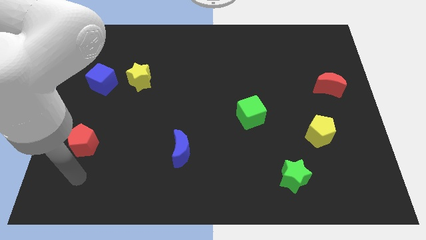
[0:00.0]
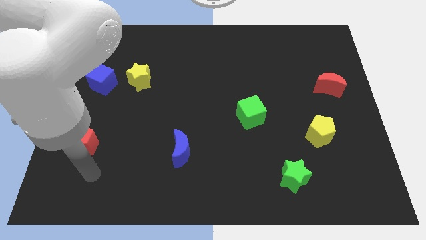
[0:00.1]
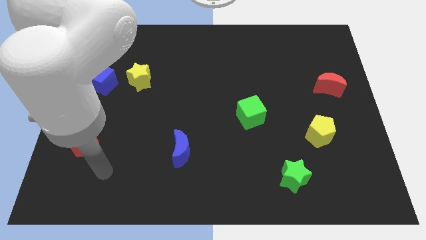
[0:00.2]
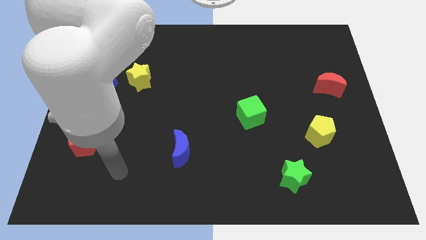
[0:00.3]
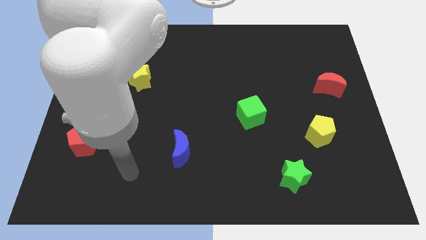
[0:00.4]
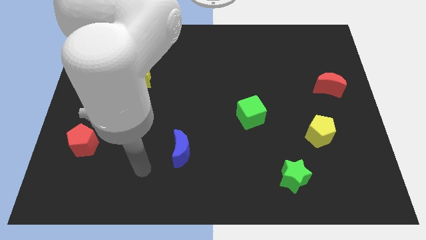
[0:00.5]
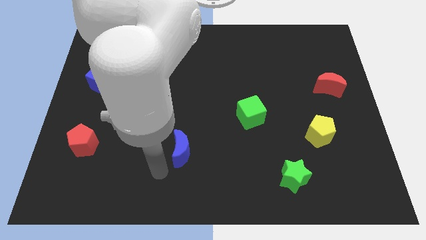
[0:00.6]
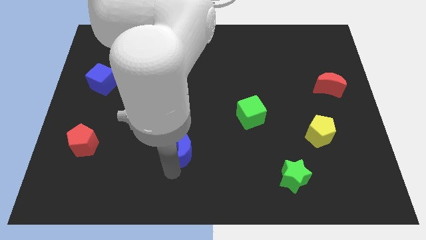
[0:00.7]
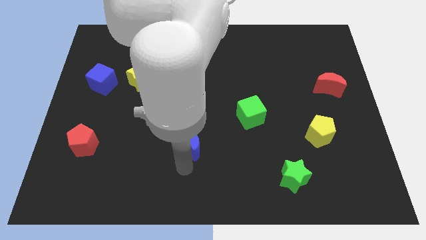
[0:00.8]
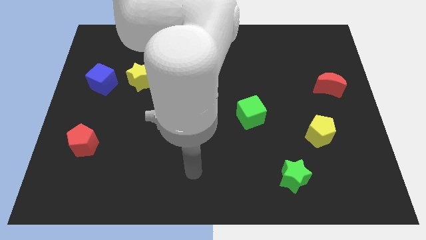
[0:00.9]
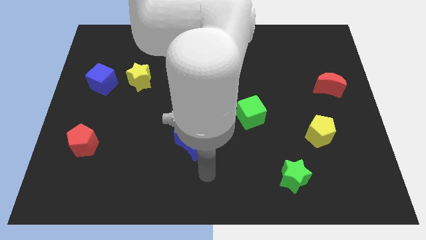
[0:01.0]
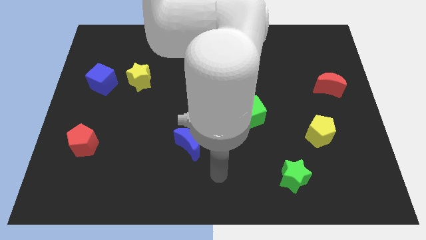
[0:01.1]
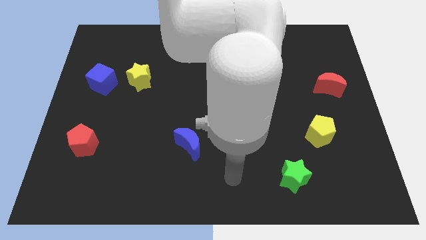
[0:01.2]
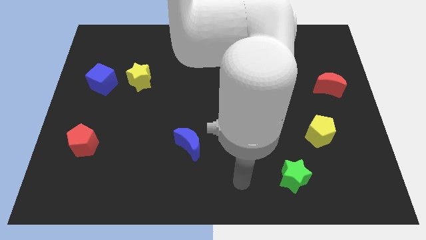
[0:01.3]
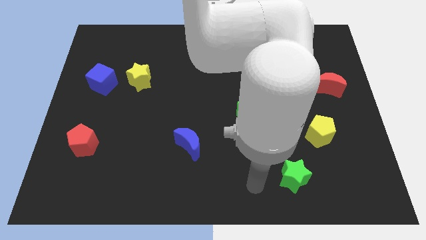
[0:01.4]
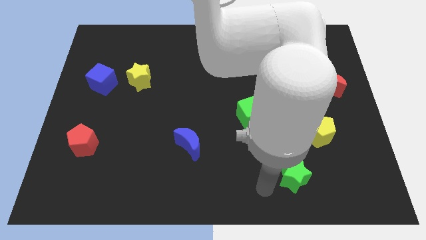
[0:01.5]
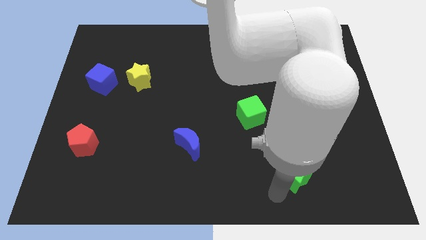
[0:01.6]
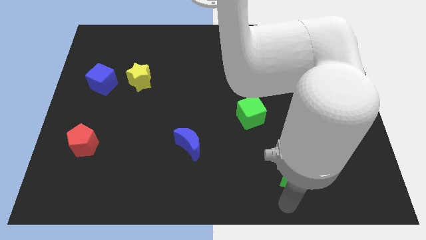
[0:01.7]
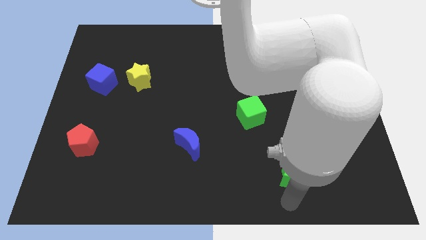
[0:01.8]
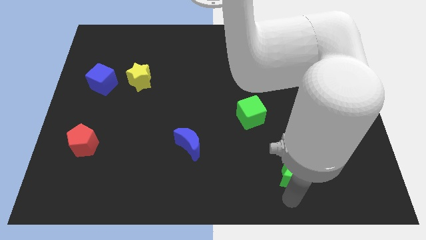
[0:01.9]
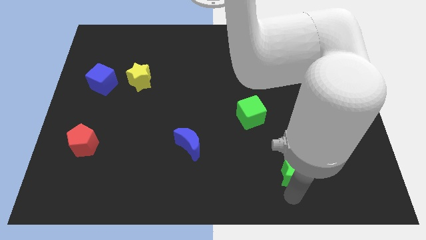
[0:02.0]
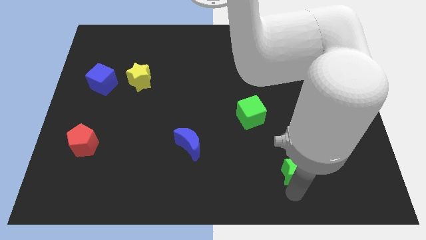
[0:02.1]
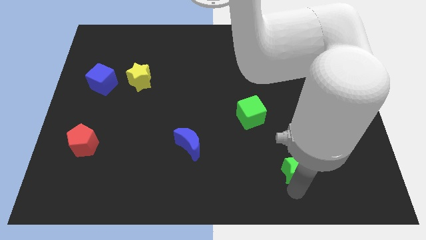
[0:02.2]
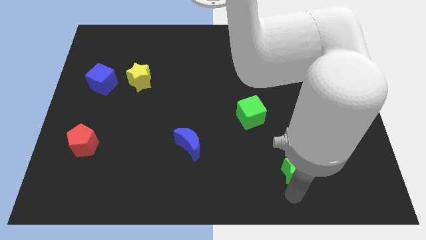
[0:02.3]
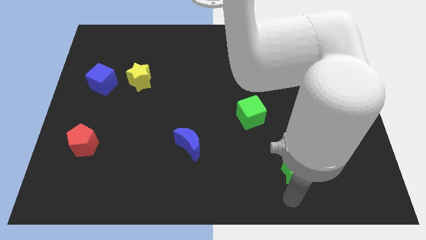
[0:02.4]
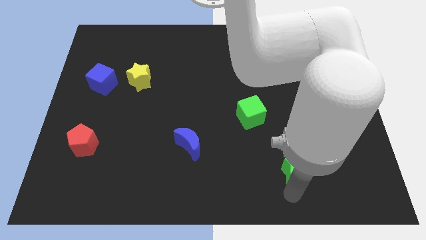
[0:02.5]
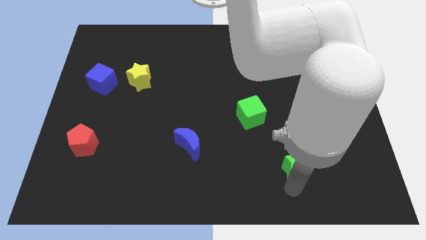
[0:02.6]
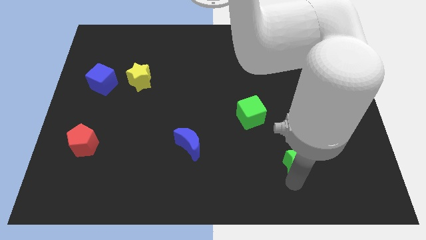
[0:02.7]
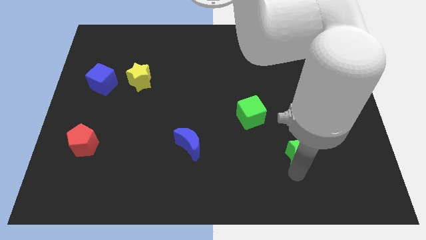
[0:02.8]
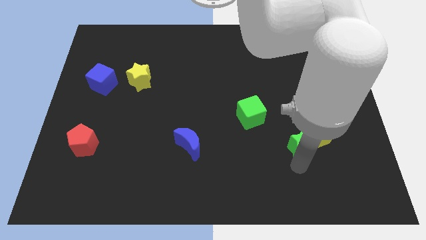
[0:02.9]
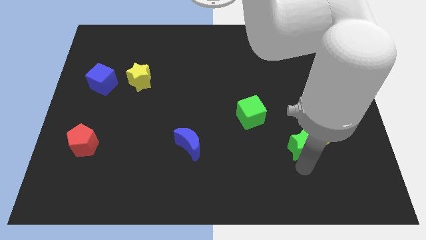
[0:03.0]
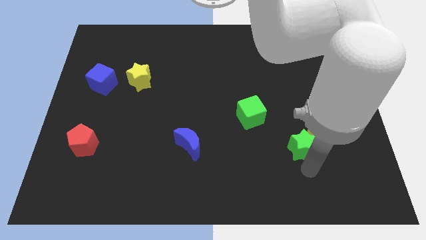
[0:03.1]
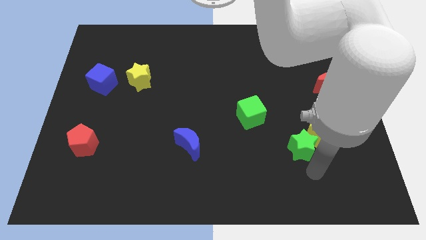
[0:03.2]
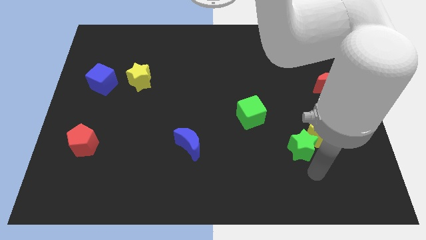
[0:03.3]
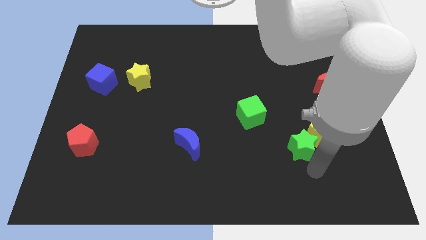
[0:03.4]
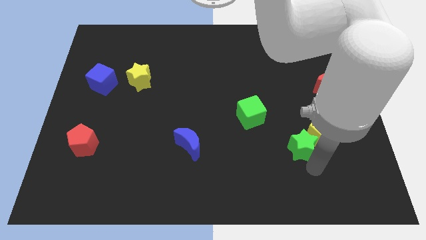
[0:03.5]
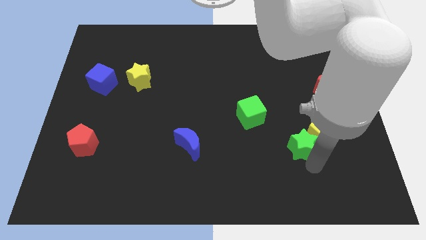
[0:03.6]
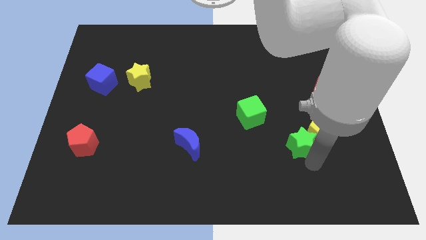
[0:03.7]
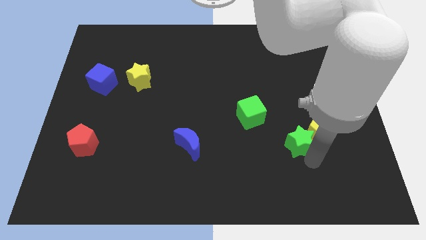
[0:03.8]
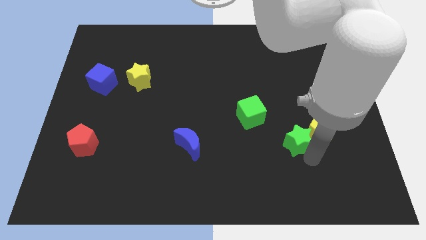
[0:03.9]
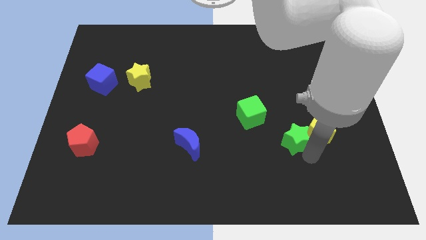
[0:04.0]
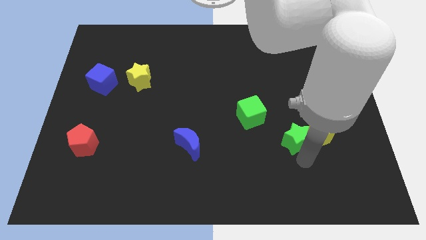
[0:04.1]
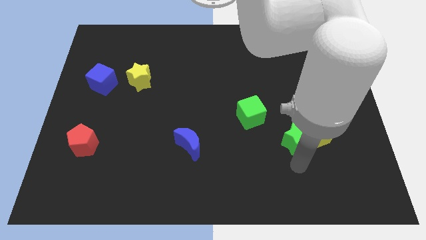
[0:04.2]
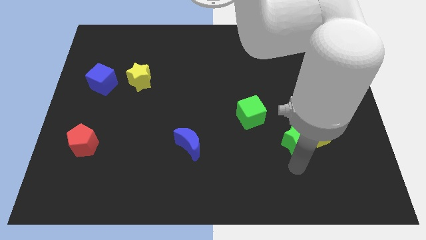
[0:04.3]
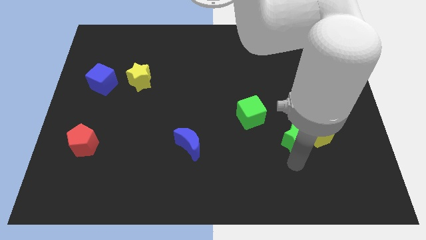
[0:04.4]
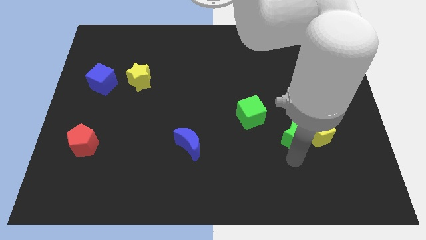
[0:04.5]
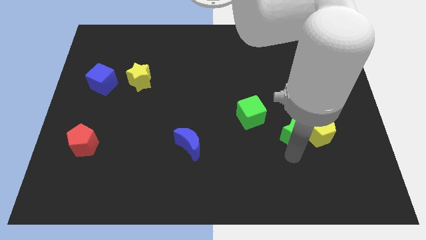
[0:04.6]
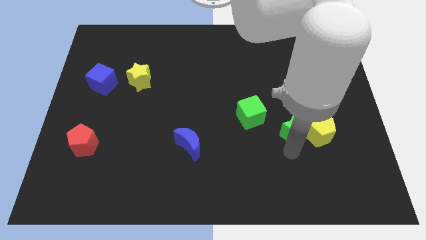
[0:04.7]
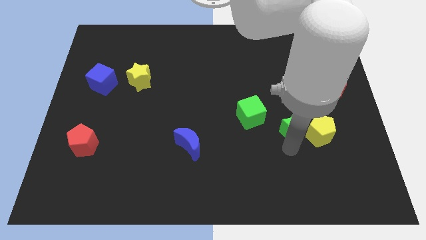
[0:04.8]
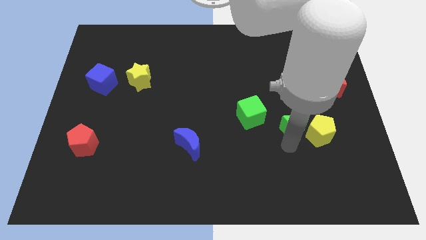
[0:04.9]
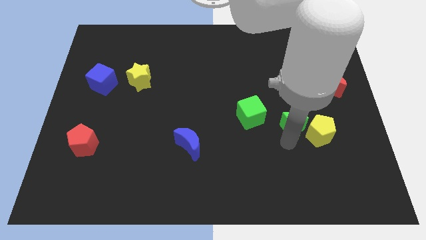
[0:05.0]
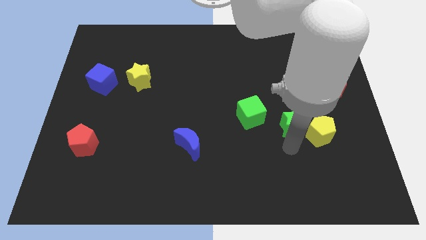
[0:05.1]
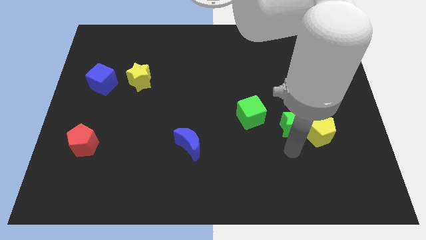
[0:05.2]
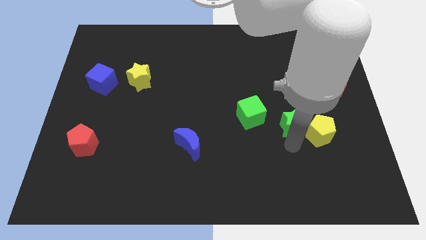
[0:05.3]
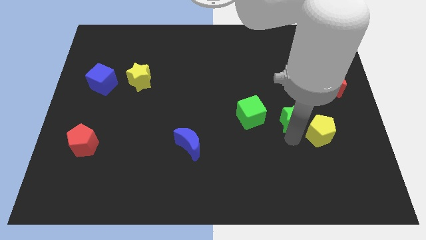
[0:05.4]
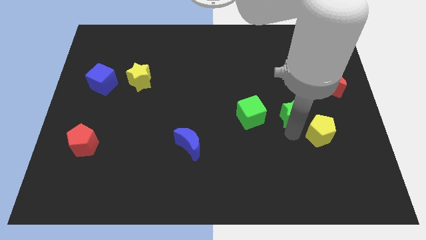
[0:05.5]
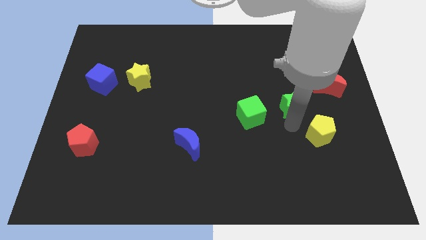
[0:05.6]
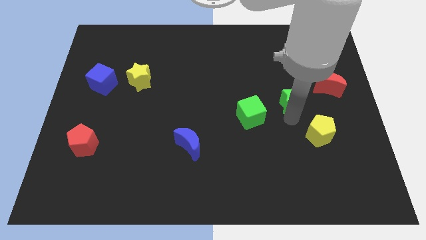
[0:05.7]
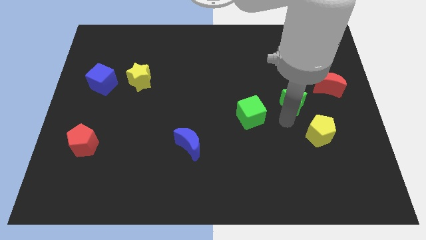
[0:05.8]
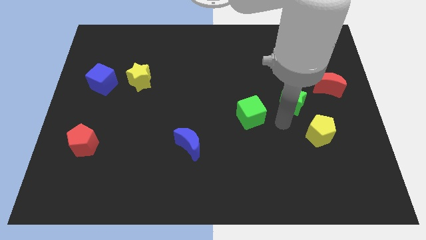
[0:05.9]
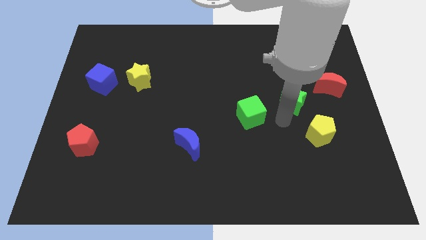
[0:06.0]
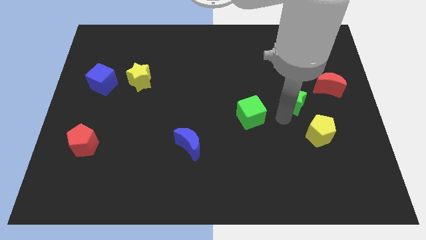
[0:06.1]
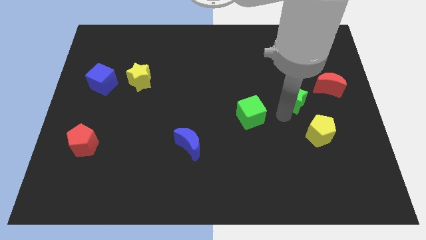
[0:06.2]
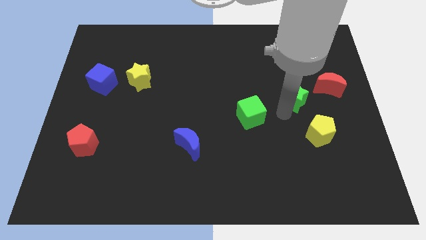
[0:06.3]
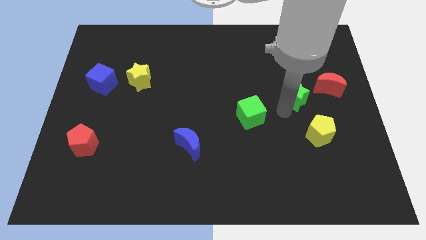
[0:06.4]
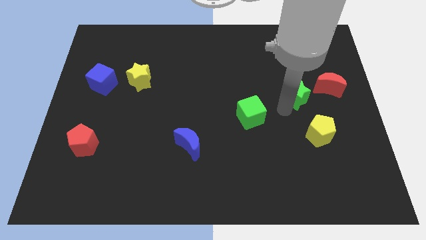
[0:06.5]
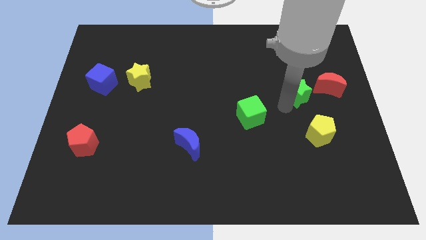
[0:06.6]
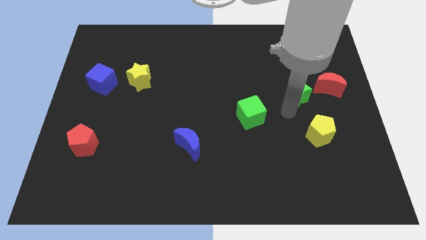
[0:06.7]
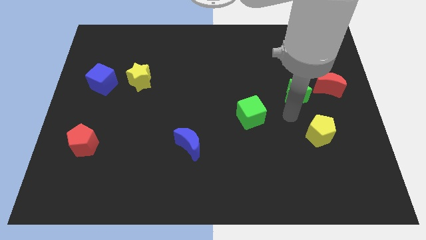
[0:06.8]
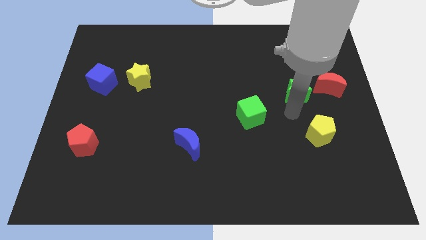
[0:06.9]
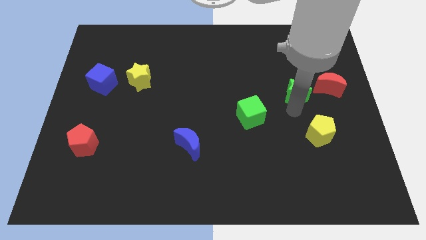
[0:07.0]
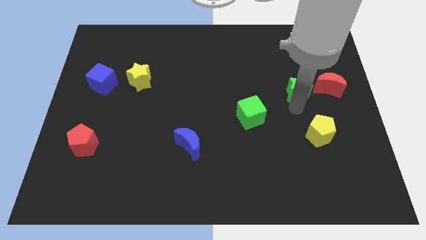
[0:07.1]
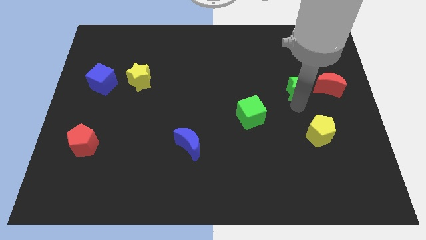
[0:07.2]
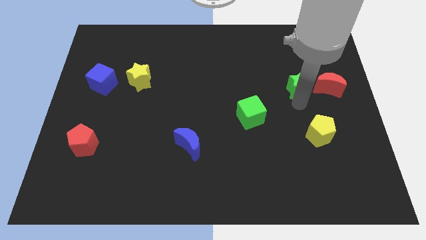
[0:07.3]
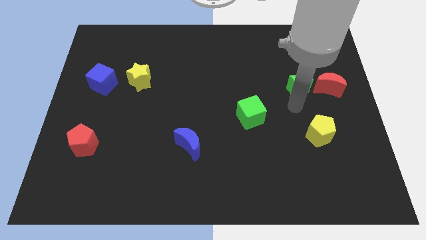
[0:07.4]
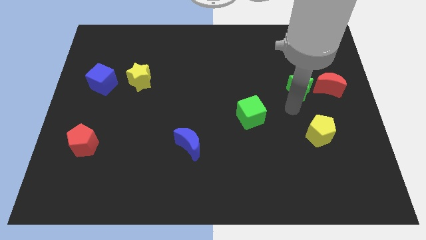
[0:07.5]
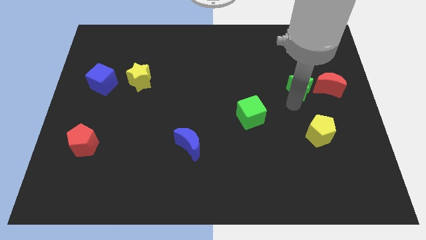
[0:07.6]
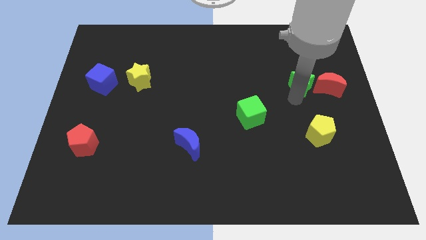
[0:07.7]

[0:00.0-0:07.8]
push the green star diagonally up and to the left of the red moon

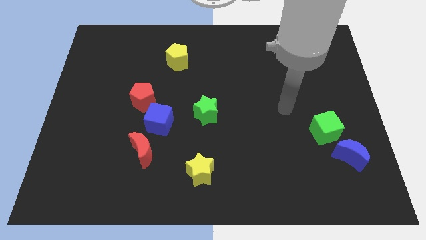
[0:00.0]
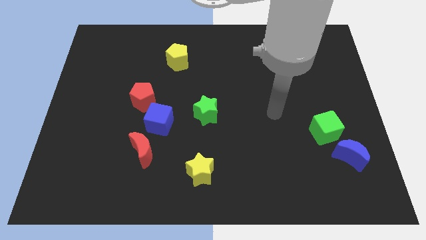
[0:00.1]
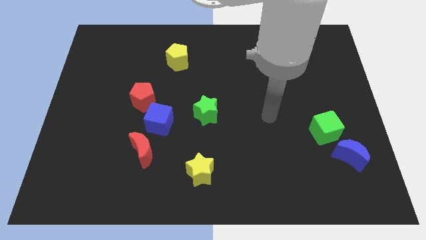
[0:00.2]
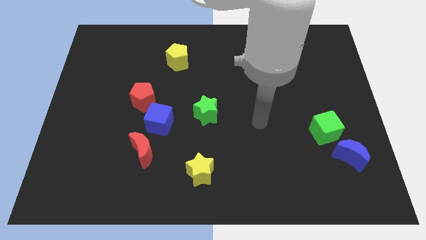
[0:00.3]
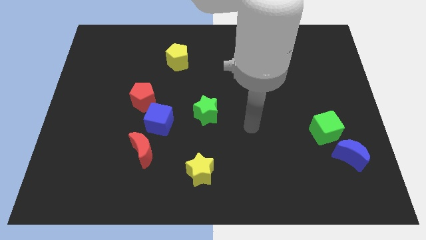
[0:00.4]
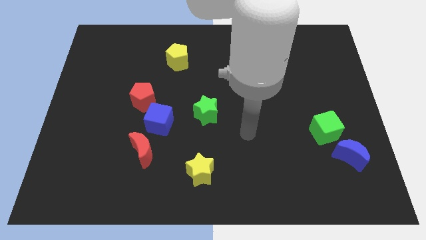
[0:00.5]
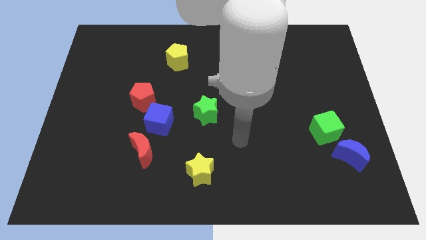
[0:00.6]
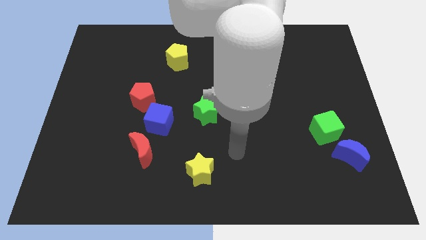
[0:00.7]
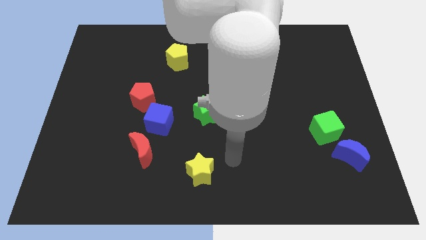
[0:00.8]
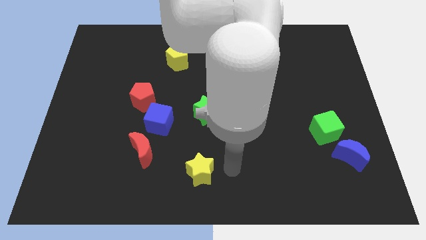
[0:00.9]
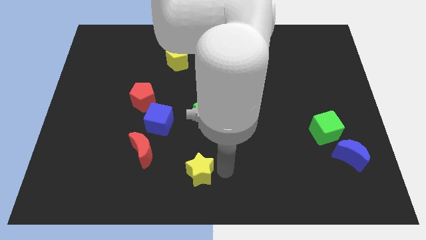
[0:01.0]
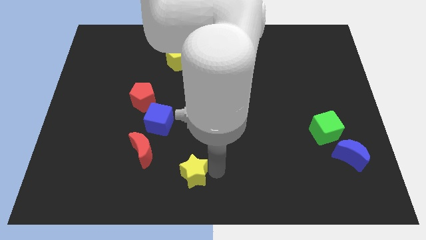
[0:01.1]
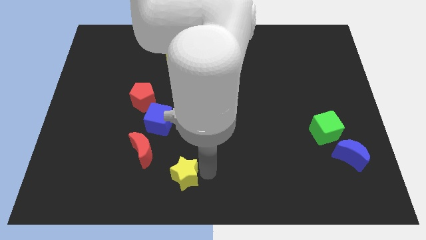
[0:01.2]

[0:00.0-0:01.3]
put the yellow star diagonally down and to the right of the red moon
